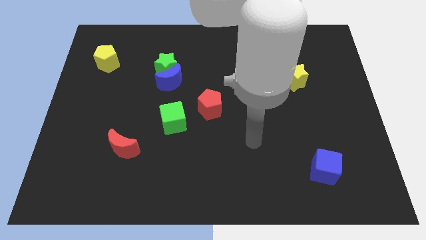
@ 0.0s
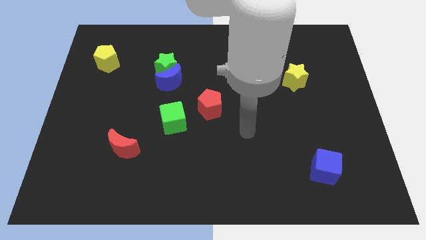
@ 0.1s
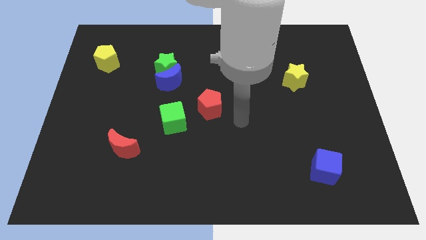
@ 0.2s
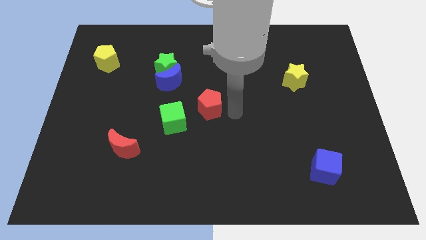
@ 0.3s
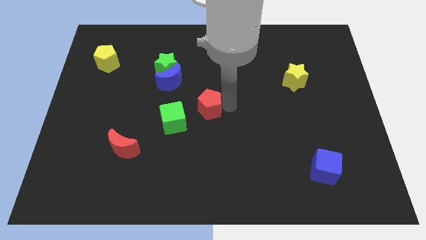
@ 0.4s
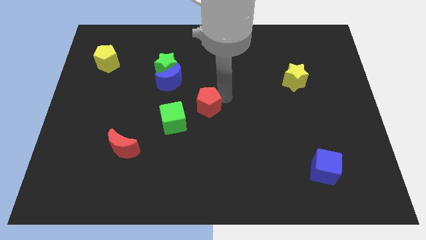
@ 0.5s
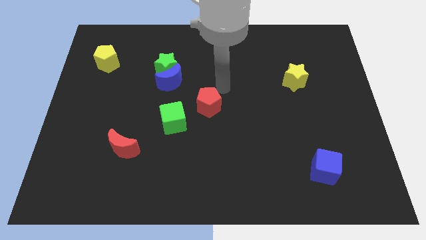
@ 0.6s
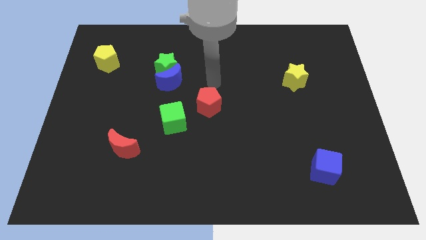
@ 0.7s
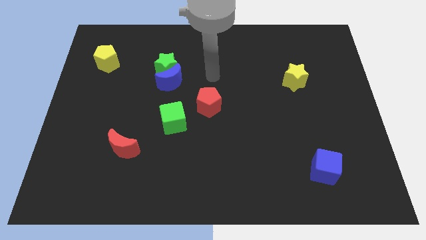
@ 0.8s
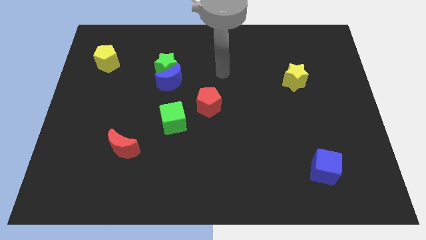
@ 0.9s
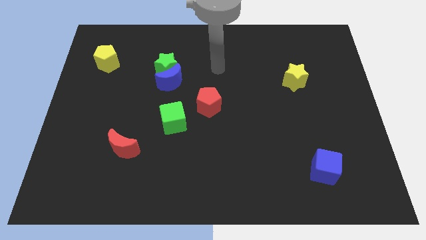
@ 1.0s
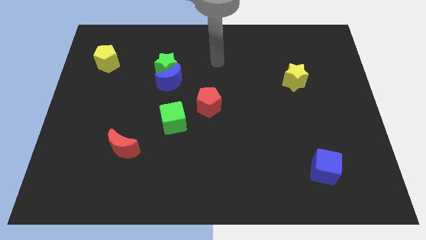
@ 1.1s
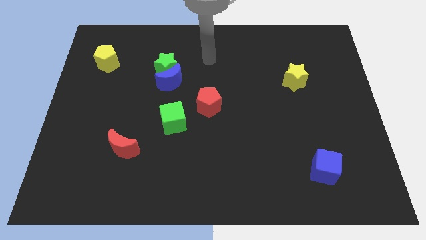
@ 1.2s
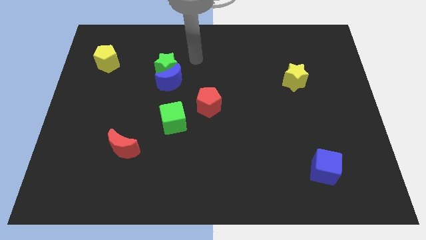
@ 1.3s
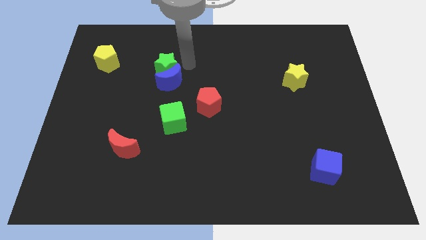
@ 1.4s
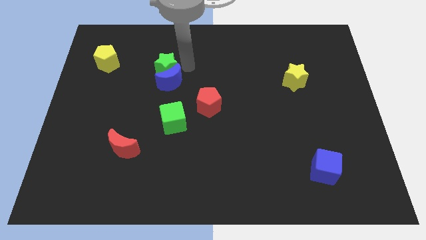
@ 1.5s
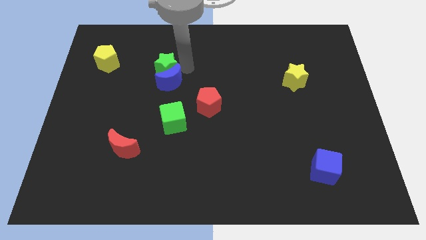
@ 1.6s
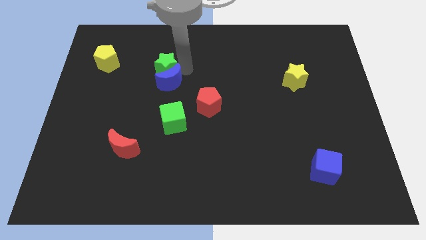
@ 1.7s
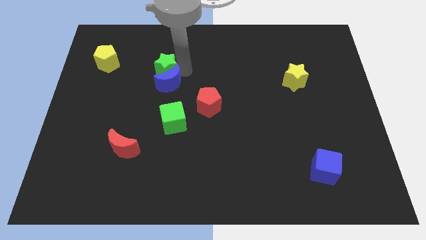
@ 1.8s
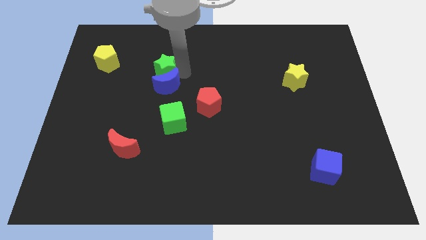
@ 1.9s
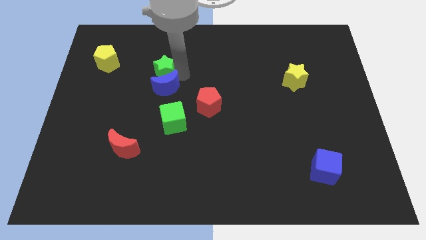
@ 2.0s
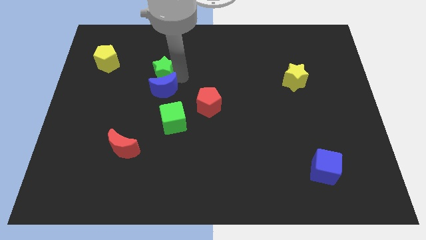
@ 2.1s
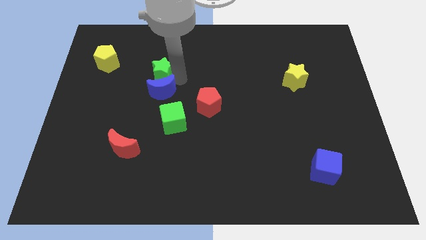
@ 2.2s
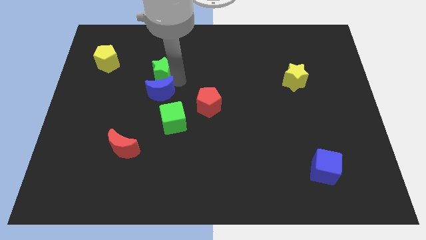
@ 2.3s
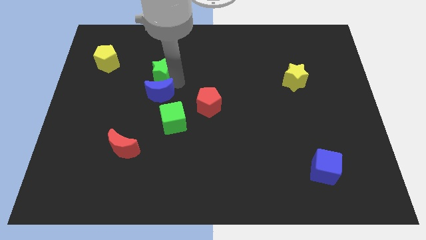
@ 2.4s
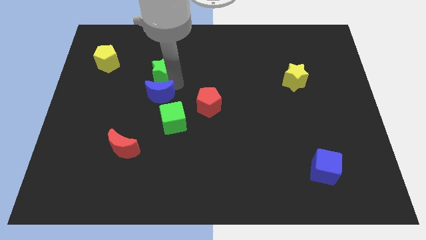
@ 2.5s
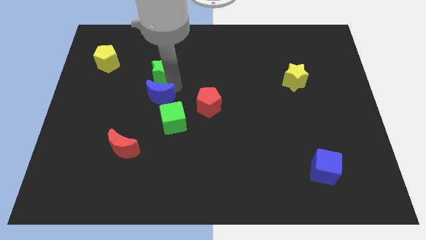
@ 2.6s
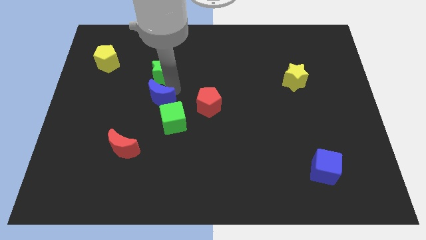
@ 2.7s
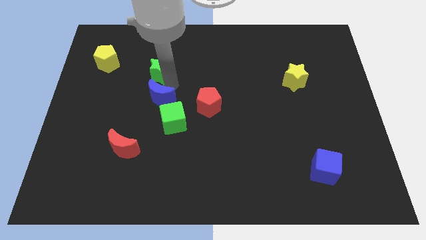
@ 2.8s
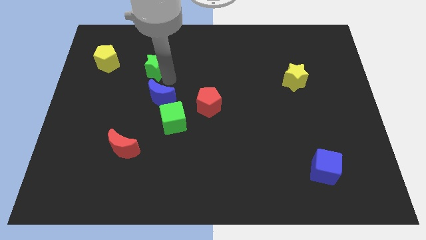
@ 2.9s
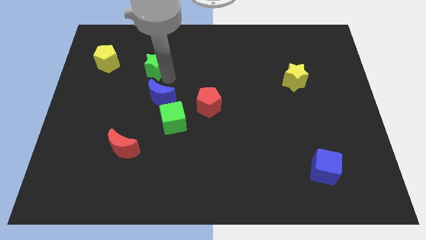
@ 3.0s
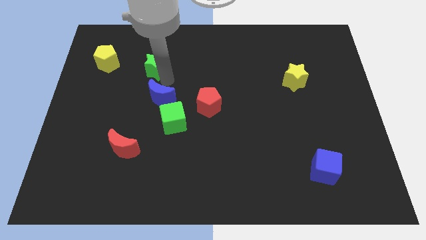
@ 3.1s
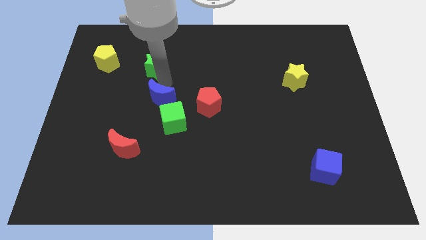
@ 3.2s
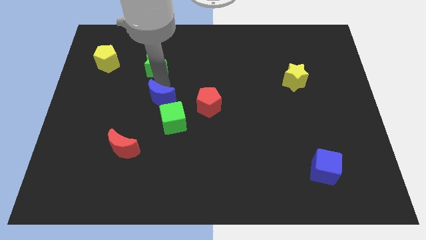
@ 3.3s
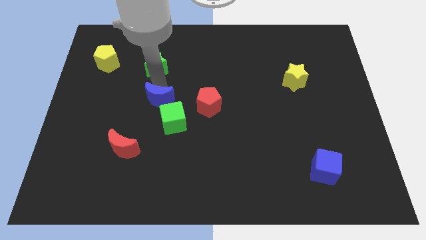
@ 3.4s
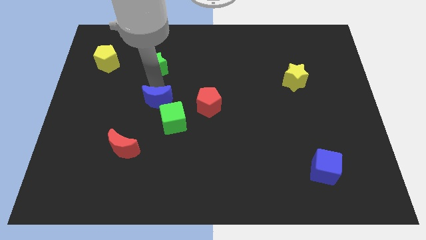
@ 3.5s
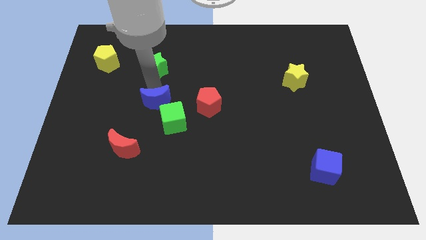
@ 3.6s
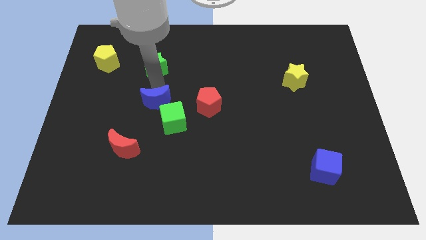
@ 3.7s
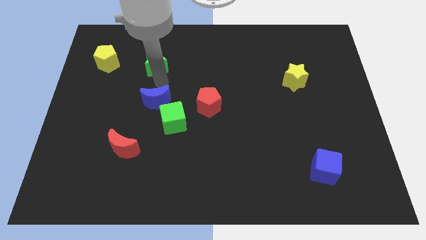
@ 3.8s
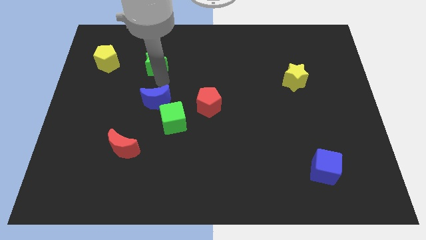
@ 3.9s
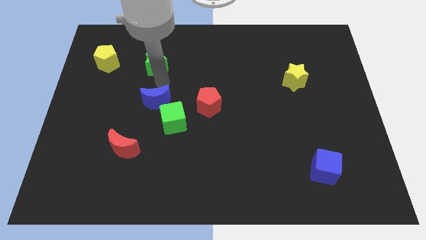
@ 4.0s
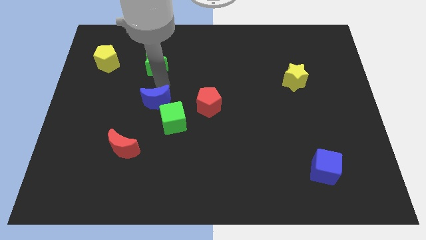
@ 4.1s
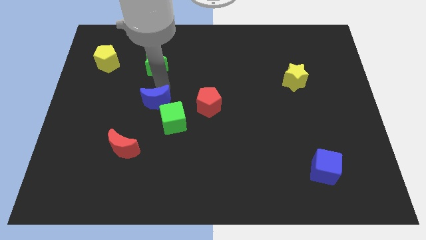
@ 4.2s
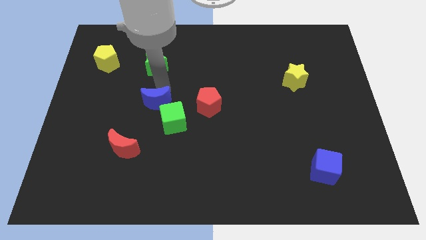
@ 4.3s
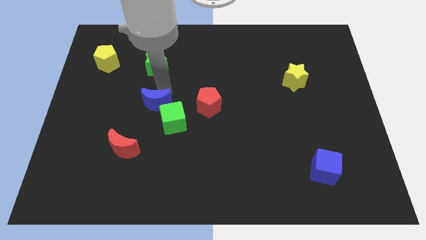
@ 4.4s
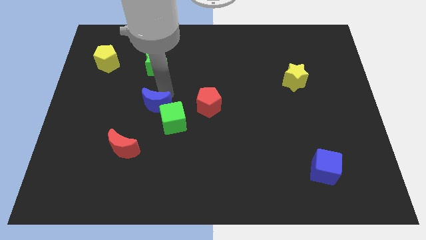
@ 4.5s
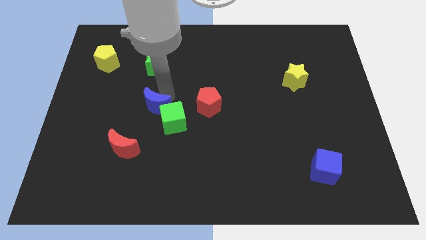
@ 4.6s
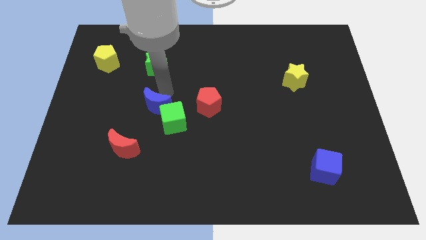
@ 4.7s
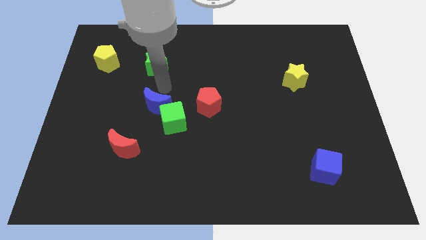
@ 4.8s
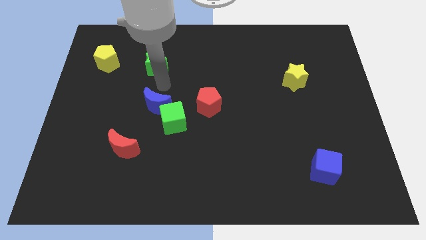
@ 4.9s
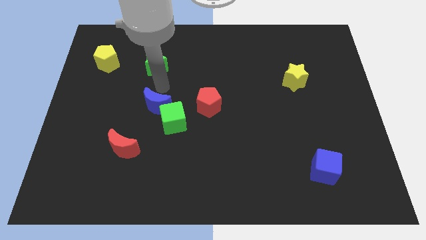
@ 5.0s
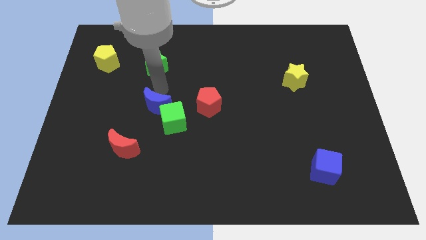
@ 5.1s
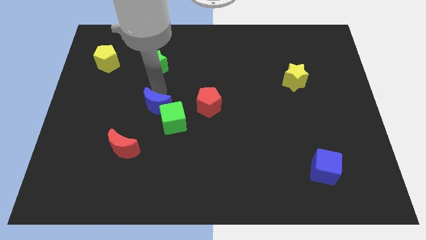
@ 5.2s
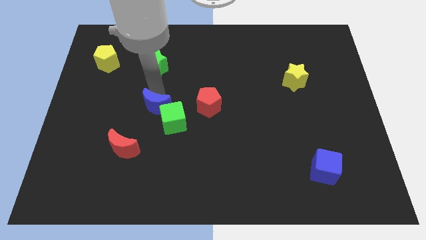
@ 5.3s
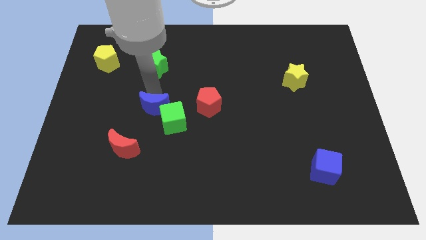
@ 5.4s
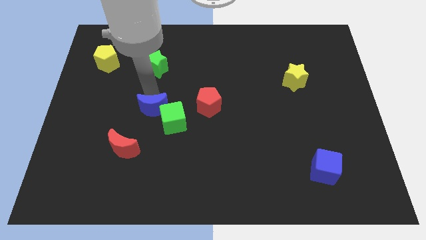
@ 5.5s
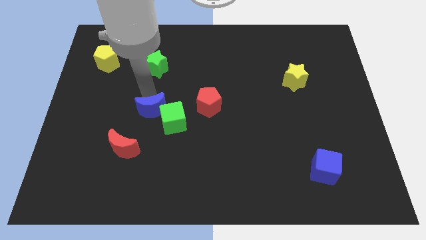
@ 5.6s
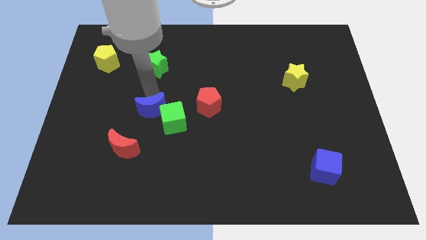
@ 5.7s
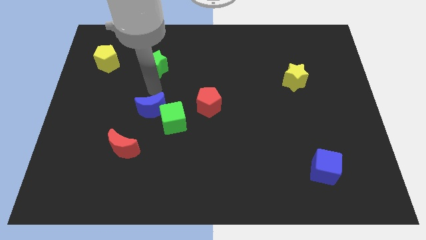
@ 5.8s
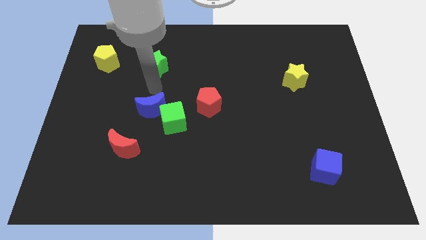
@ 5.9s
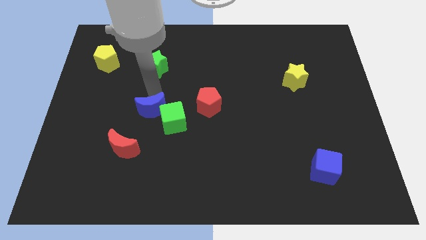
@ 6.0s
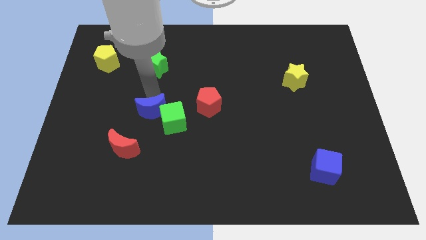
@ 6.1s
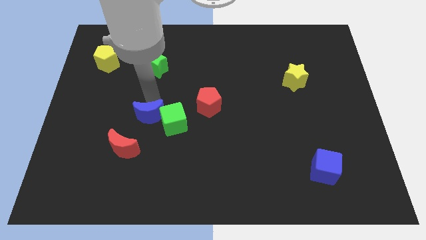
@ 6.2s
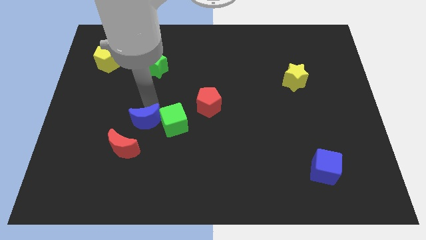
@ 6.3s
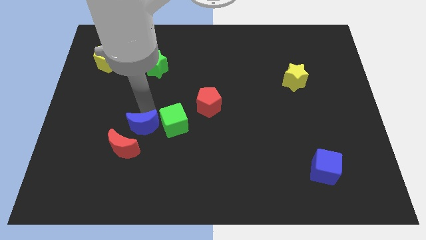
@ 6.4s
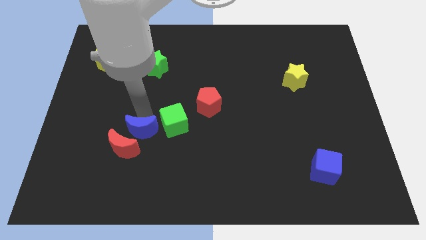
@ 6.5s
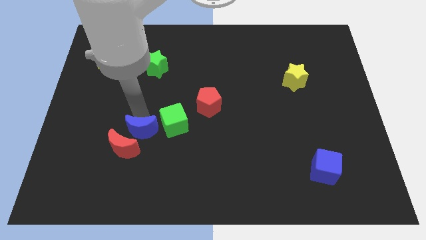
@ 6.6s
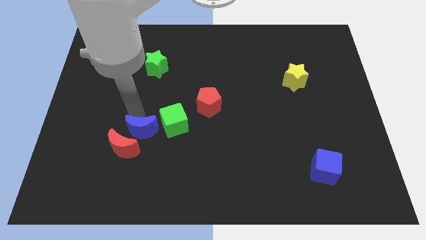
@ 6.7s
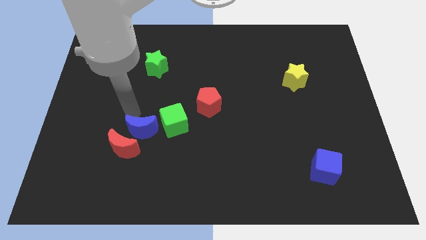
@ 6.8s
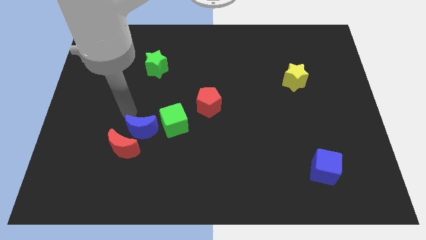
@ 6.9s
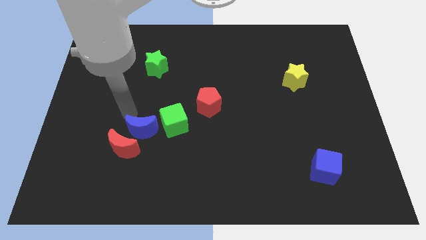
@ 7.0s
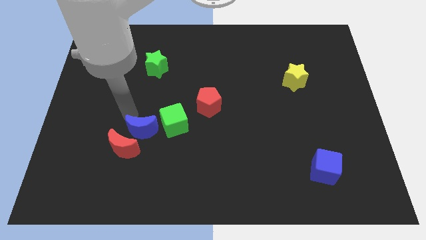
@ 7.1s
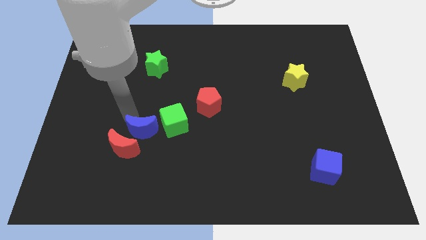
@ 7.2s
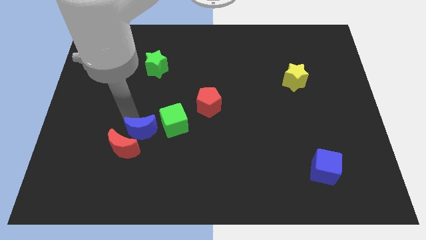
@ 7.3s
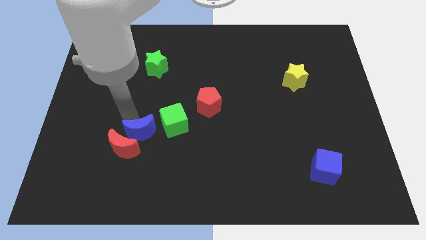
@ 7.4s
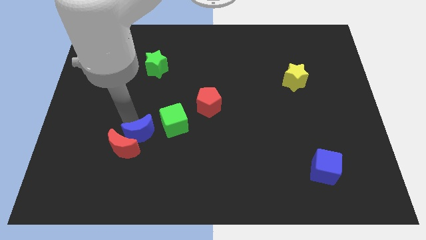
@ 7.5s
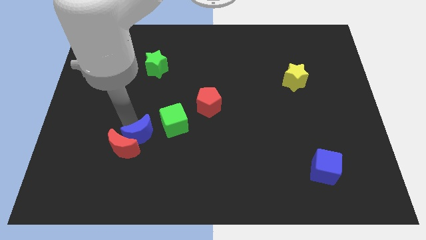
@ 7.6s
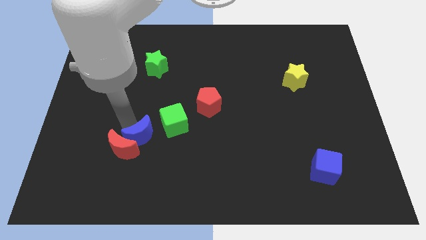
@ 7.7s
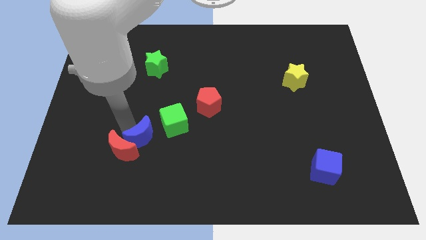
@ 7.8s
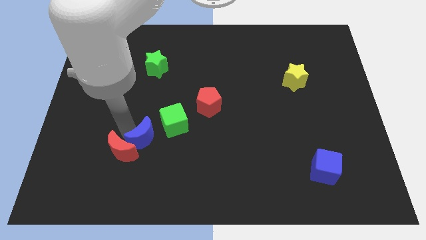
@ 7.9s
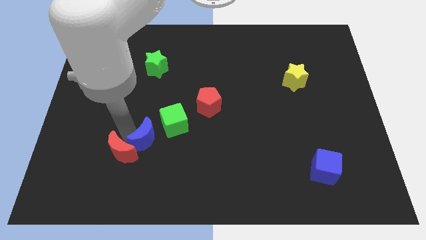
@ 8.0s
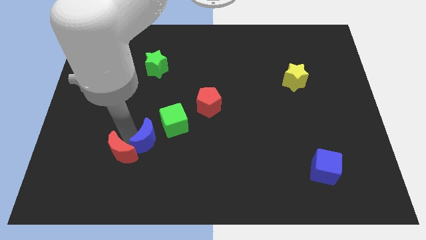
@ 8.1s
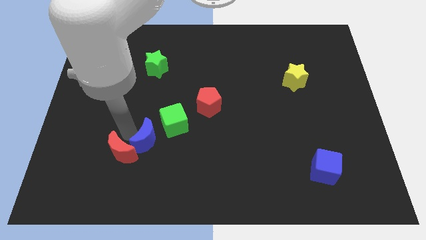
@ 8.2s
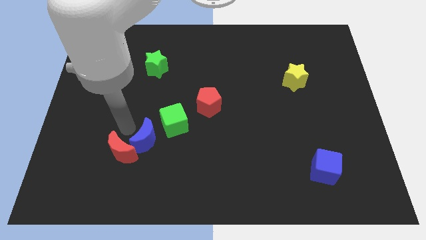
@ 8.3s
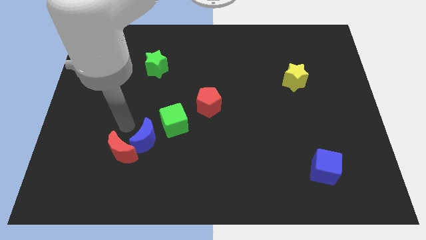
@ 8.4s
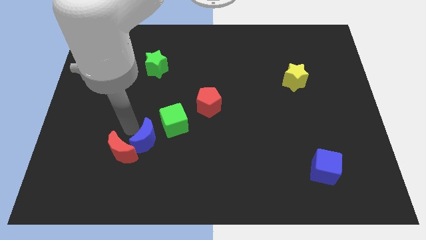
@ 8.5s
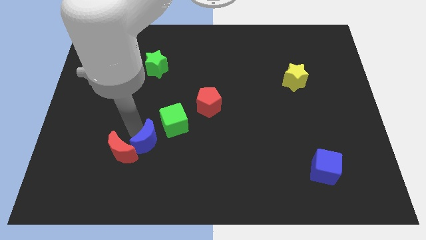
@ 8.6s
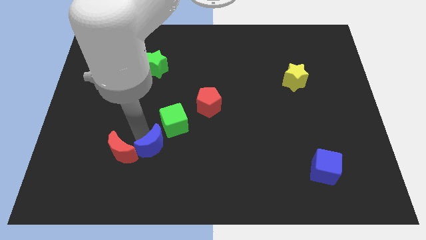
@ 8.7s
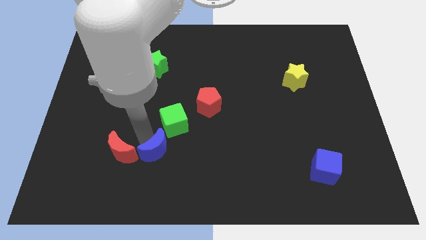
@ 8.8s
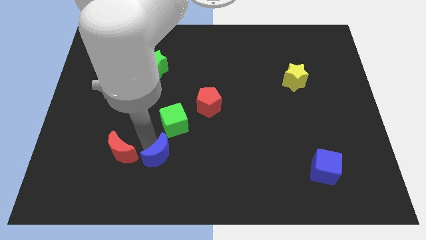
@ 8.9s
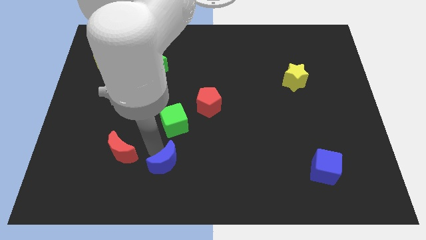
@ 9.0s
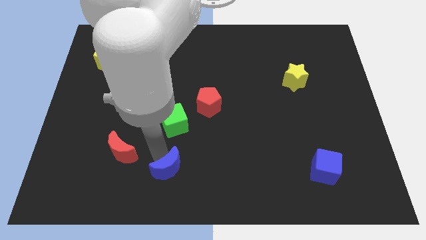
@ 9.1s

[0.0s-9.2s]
push the blue moon to the bottom
